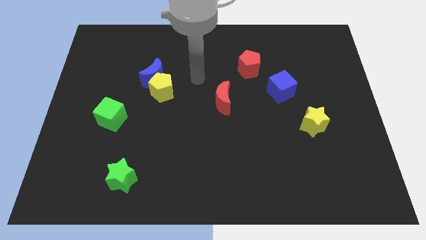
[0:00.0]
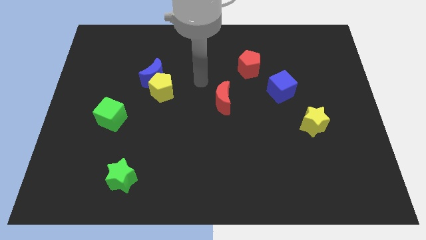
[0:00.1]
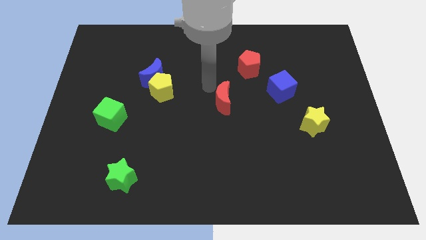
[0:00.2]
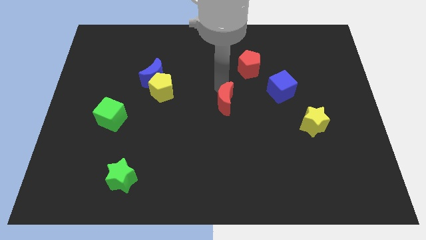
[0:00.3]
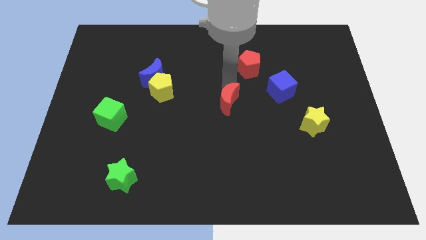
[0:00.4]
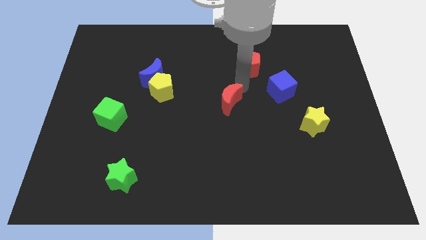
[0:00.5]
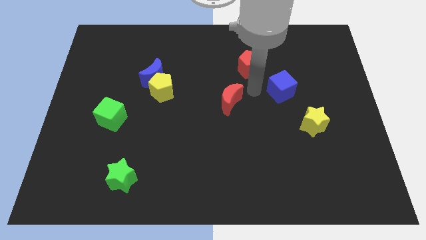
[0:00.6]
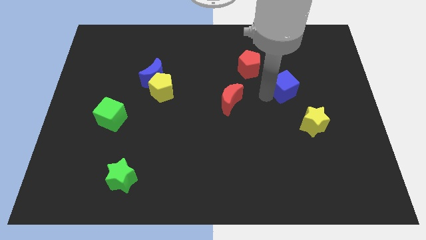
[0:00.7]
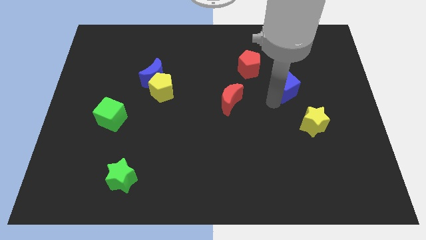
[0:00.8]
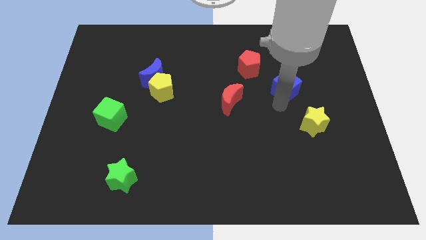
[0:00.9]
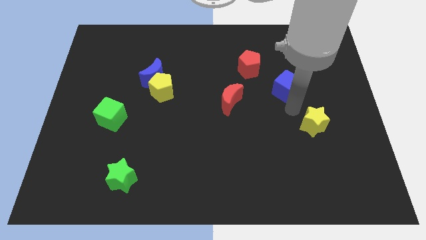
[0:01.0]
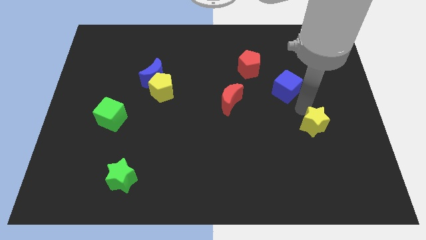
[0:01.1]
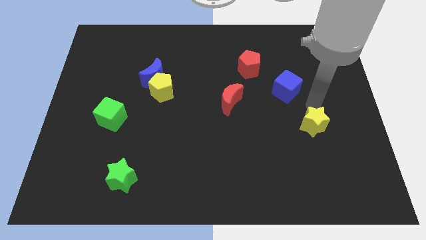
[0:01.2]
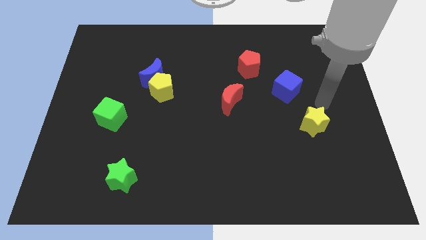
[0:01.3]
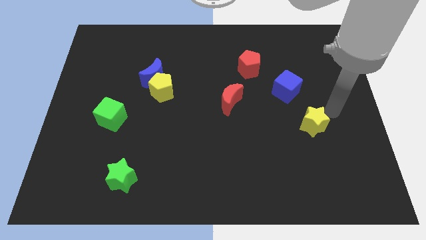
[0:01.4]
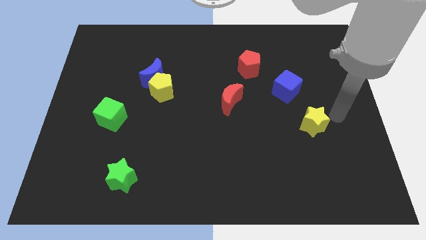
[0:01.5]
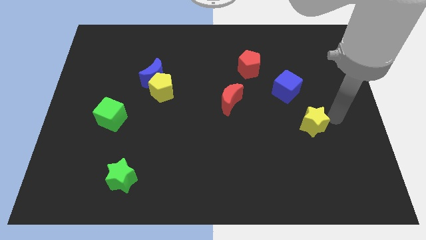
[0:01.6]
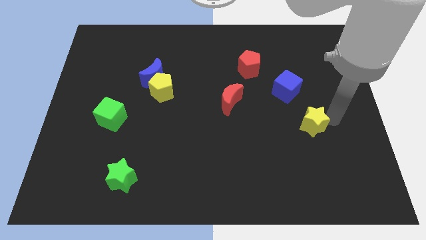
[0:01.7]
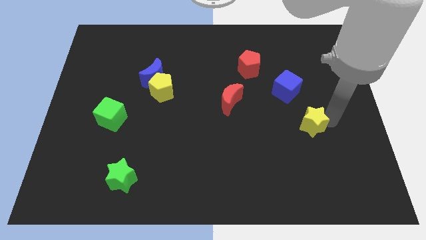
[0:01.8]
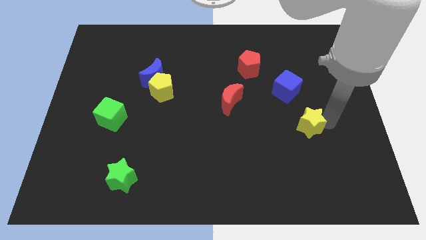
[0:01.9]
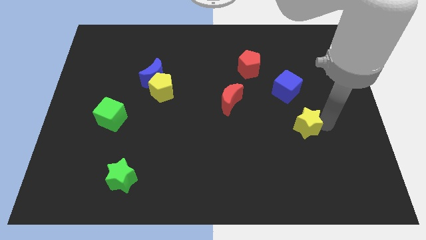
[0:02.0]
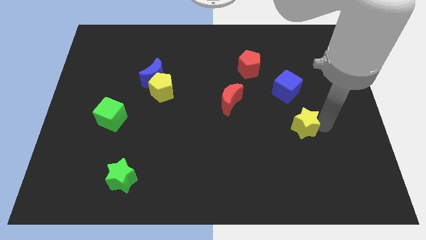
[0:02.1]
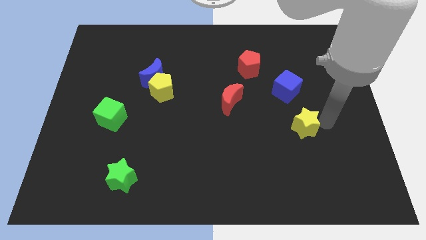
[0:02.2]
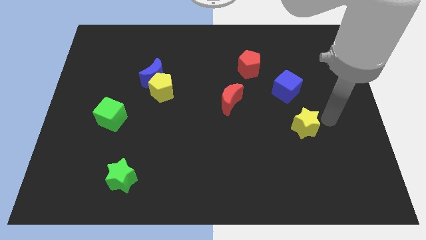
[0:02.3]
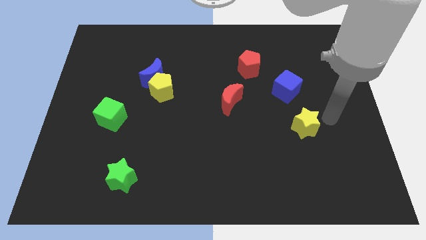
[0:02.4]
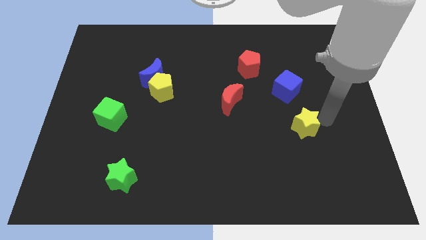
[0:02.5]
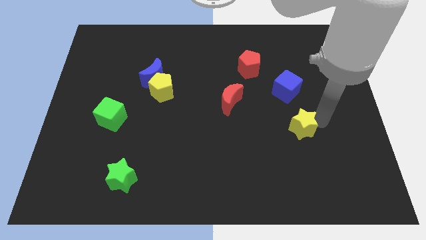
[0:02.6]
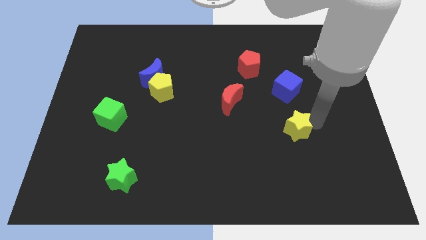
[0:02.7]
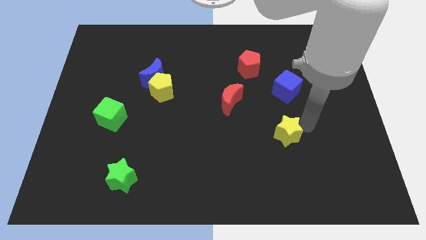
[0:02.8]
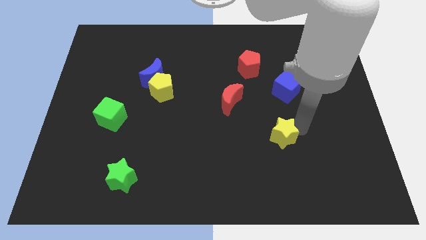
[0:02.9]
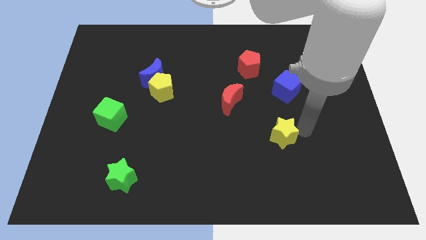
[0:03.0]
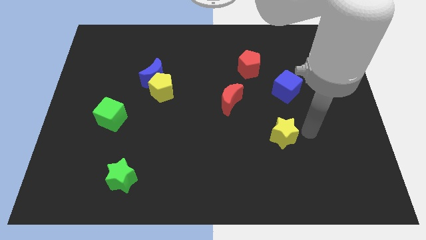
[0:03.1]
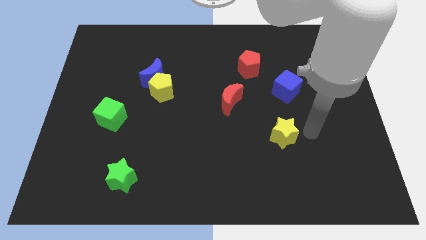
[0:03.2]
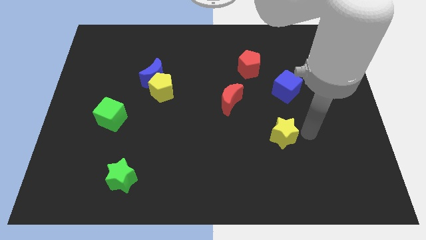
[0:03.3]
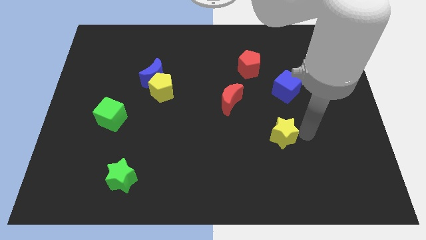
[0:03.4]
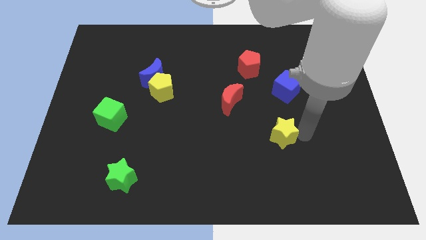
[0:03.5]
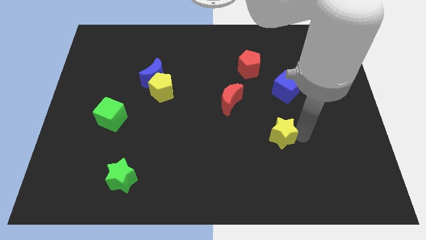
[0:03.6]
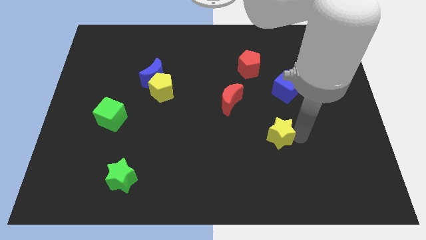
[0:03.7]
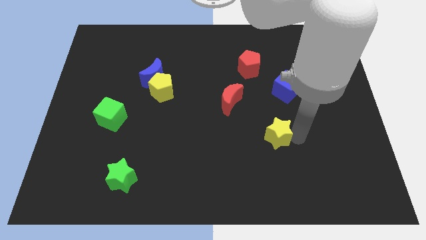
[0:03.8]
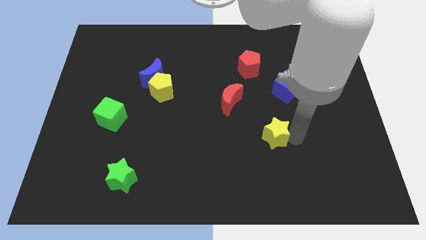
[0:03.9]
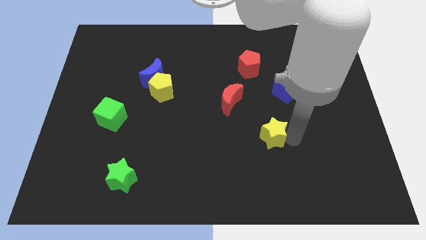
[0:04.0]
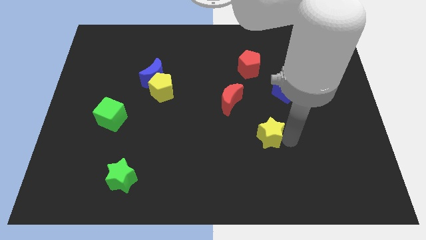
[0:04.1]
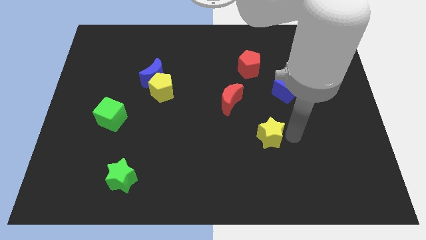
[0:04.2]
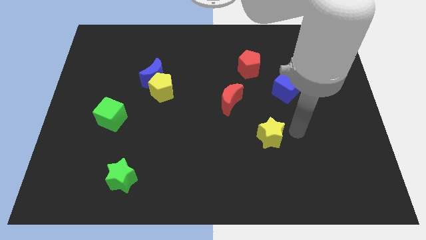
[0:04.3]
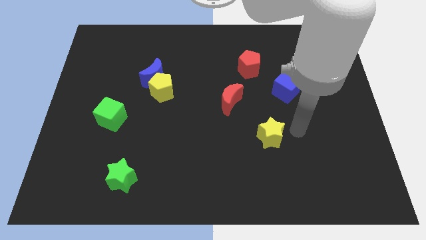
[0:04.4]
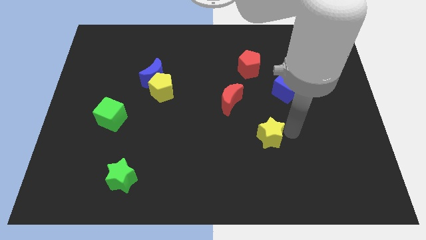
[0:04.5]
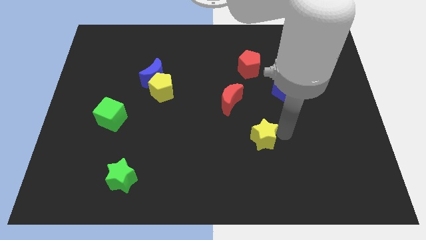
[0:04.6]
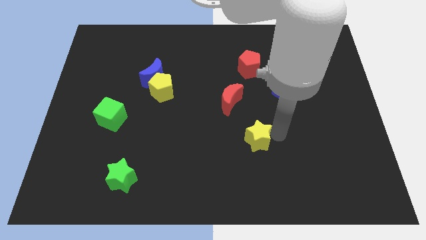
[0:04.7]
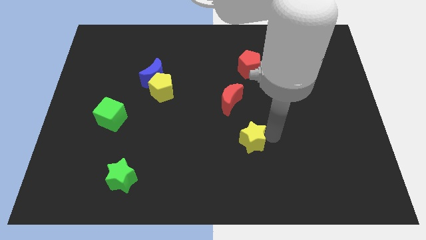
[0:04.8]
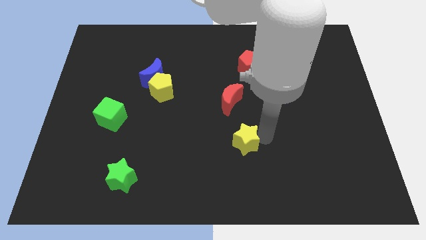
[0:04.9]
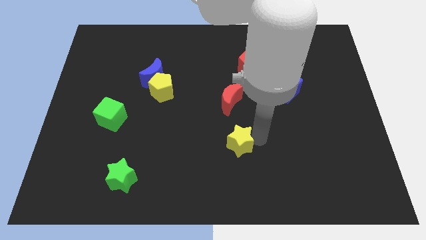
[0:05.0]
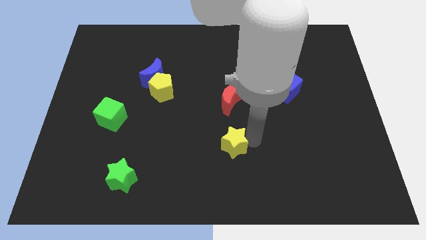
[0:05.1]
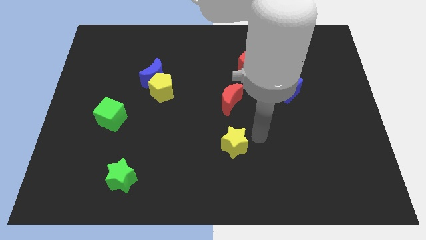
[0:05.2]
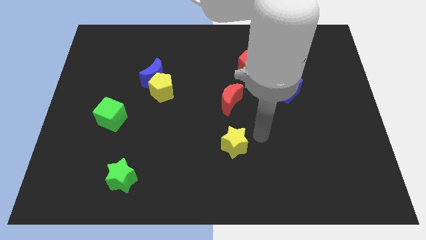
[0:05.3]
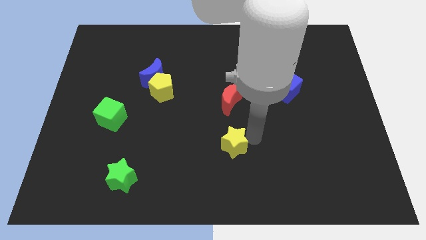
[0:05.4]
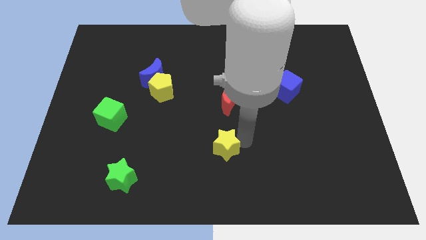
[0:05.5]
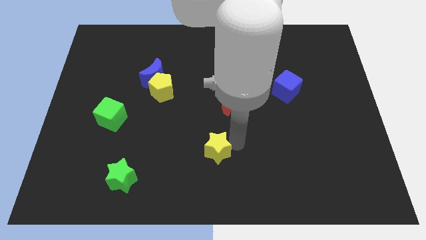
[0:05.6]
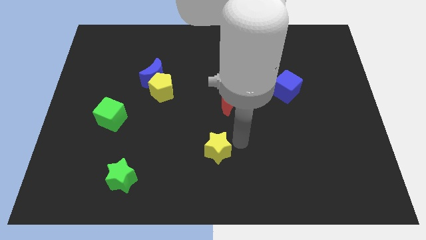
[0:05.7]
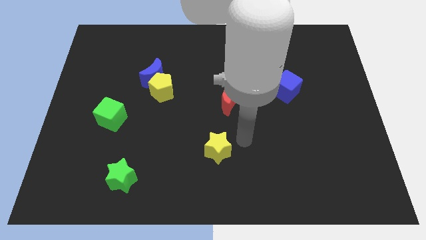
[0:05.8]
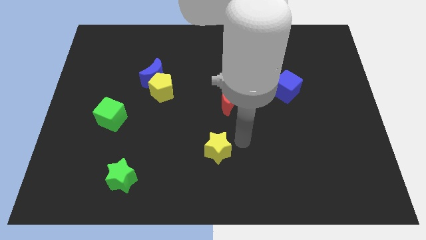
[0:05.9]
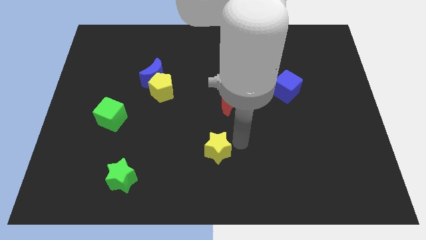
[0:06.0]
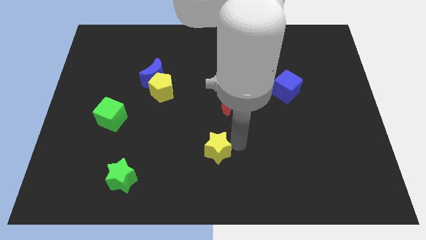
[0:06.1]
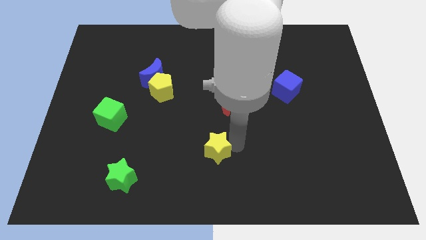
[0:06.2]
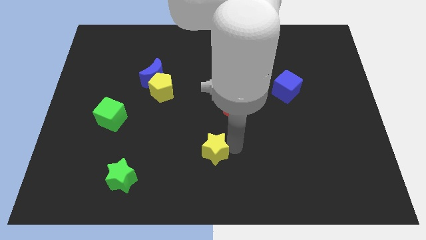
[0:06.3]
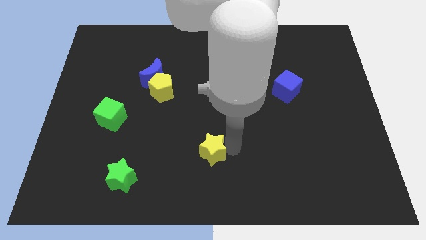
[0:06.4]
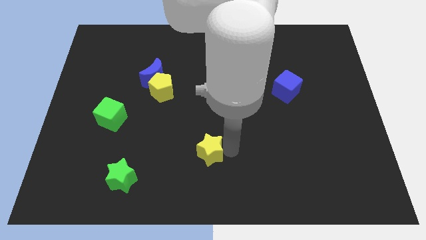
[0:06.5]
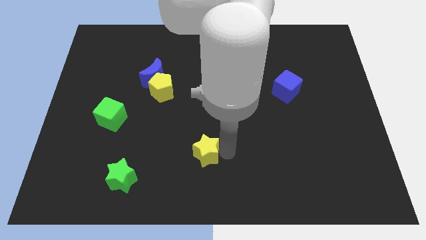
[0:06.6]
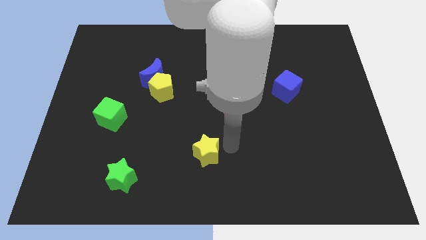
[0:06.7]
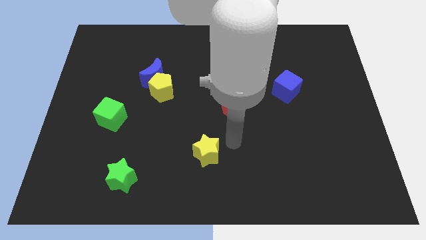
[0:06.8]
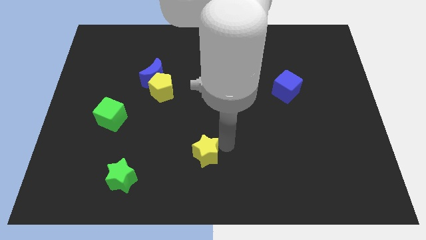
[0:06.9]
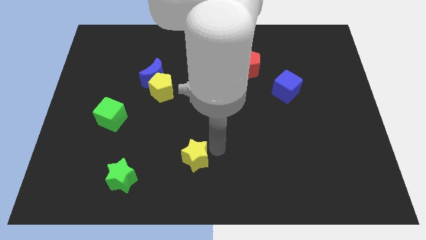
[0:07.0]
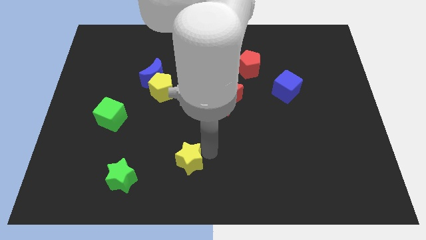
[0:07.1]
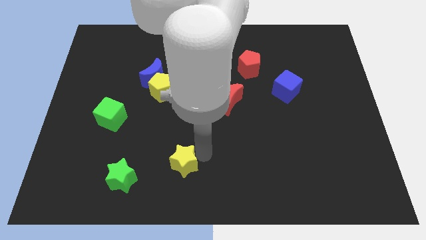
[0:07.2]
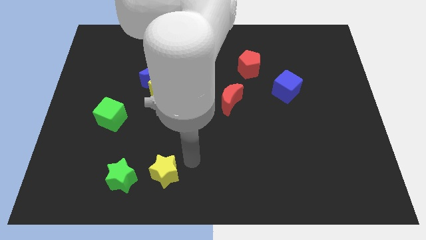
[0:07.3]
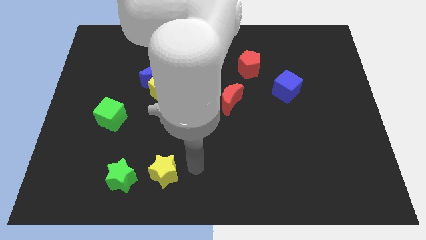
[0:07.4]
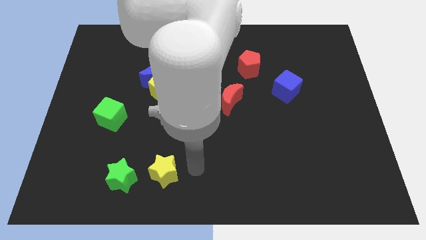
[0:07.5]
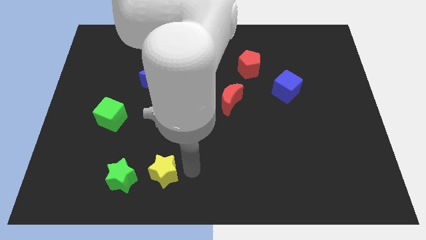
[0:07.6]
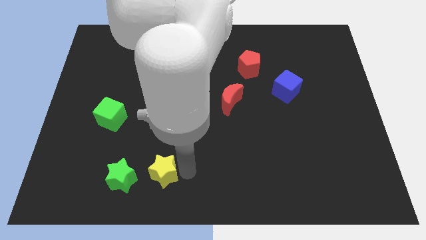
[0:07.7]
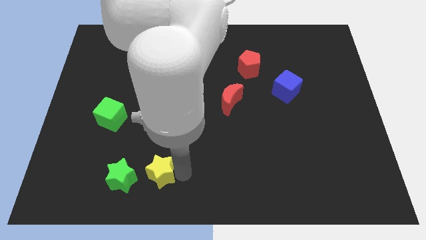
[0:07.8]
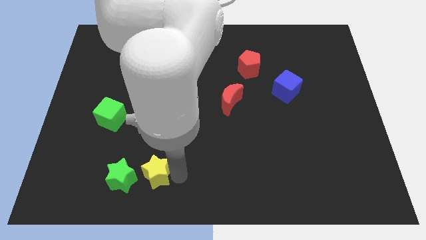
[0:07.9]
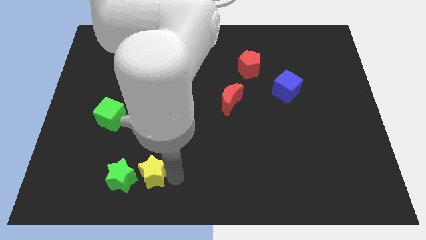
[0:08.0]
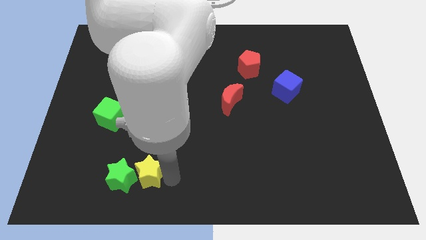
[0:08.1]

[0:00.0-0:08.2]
move the yellow star to the green star
